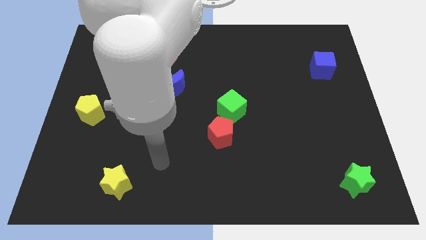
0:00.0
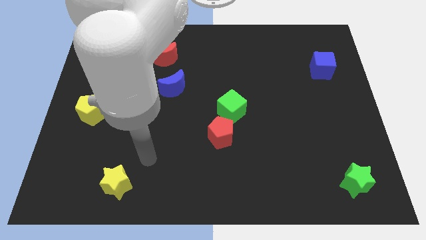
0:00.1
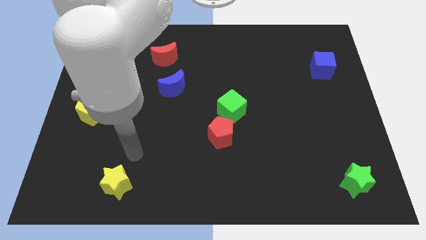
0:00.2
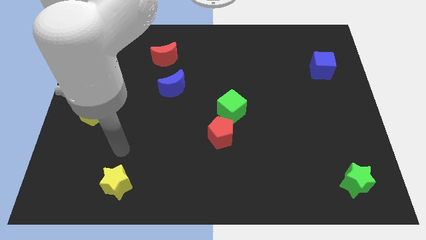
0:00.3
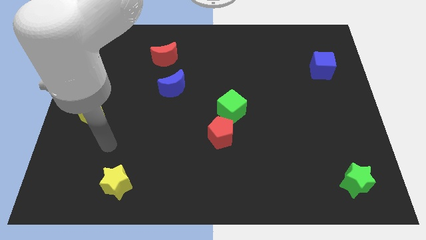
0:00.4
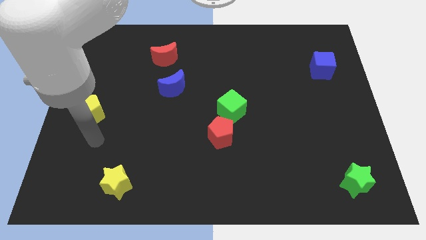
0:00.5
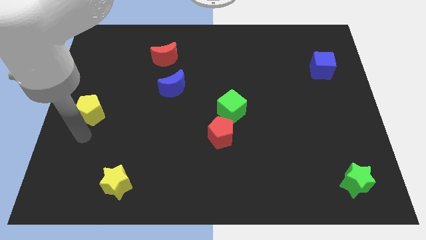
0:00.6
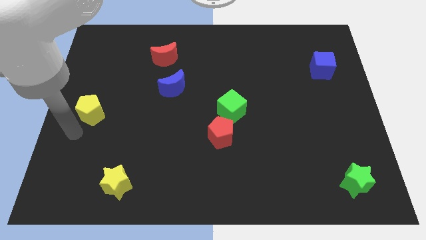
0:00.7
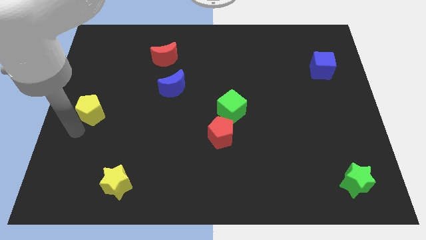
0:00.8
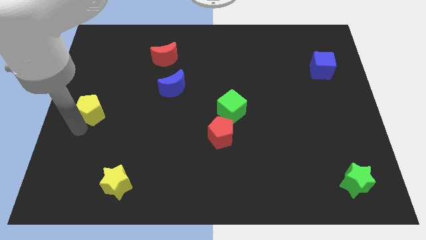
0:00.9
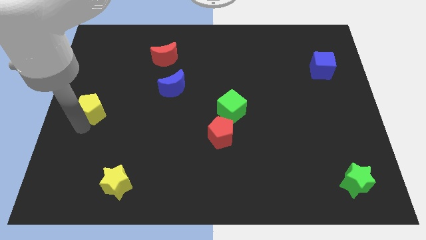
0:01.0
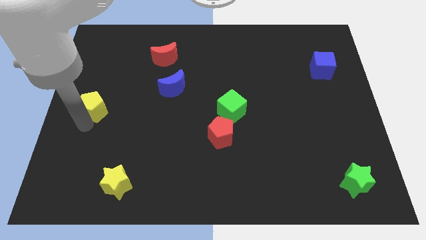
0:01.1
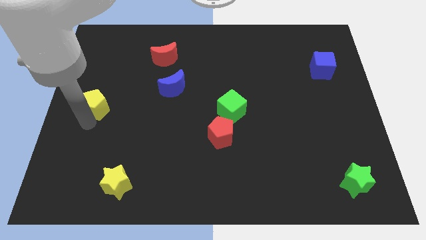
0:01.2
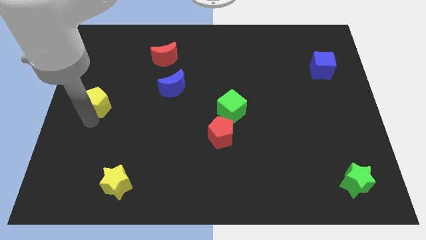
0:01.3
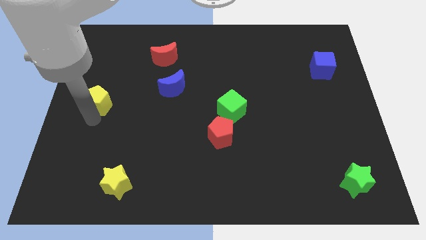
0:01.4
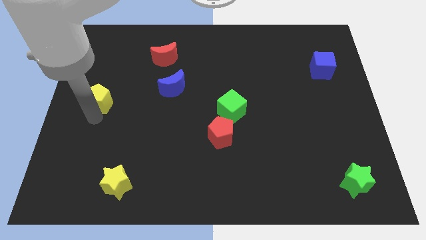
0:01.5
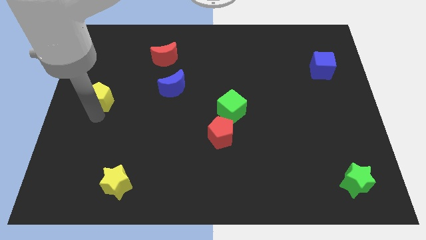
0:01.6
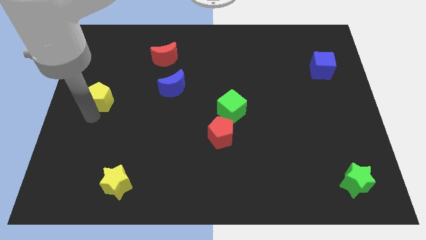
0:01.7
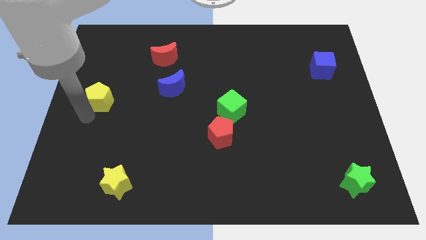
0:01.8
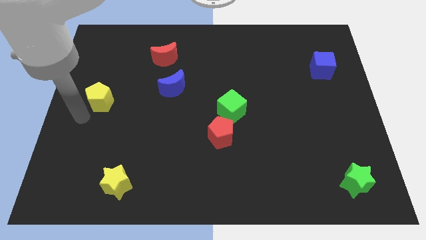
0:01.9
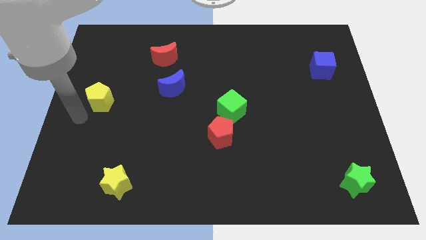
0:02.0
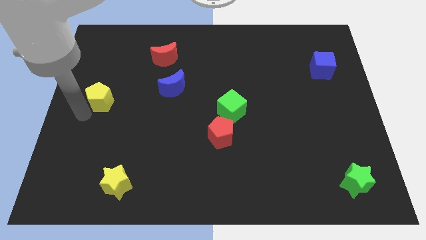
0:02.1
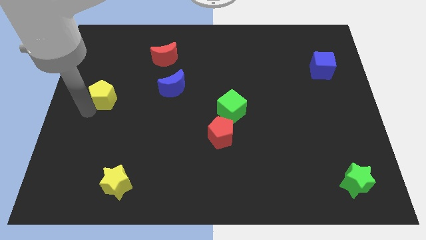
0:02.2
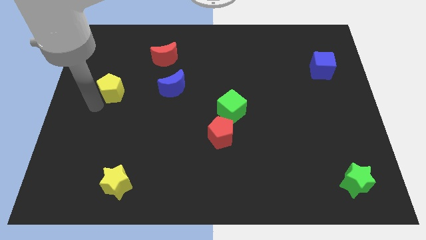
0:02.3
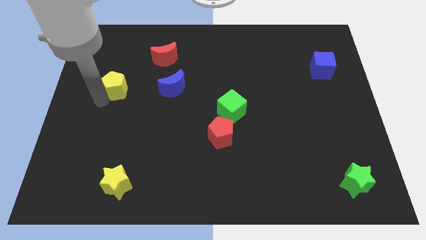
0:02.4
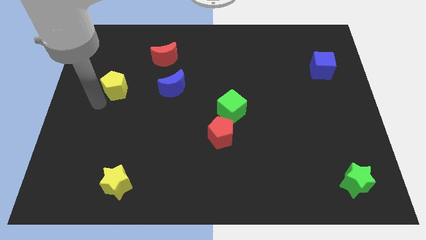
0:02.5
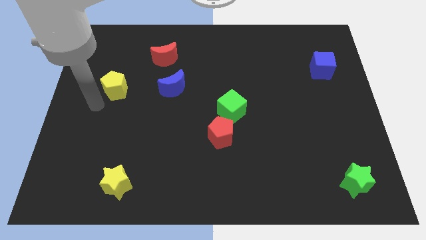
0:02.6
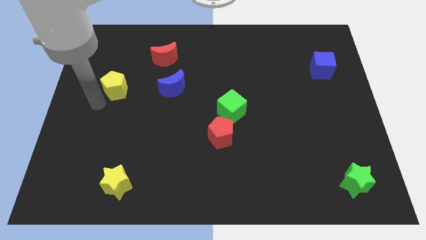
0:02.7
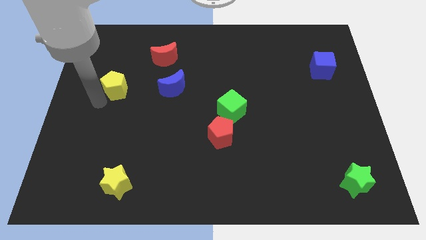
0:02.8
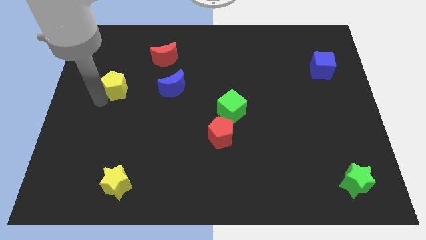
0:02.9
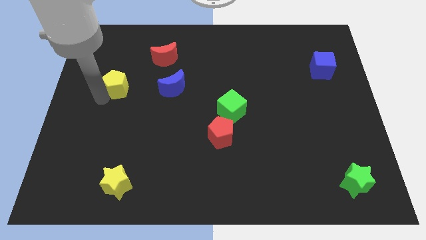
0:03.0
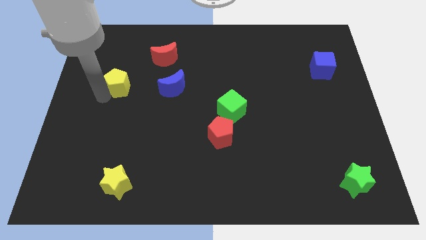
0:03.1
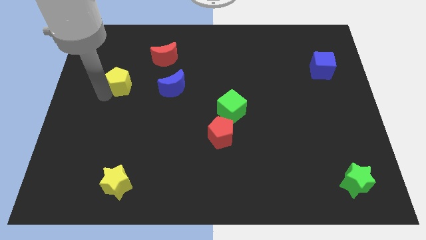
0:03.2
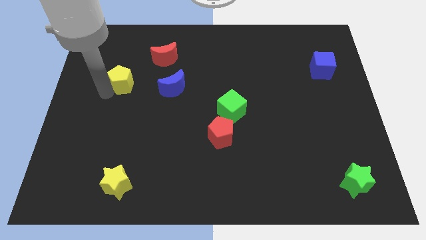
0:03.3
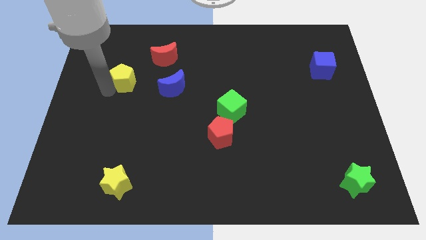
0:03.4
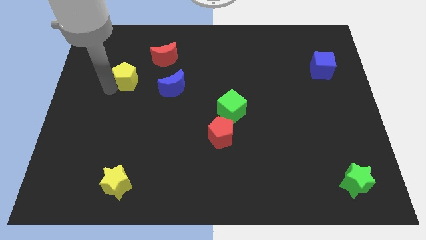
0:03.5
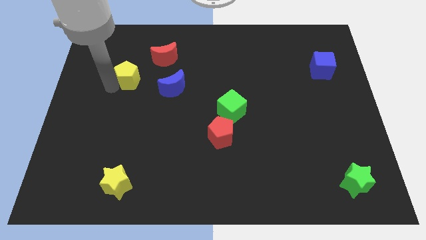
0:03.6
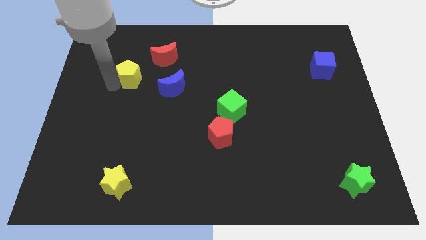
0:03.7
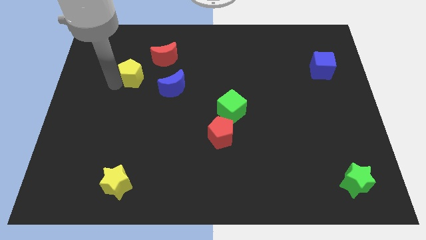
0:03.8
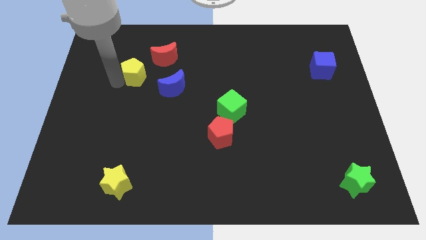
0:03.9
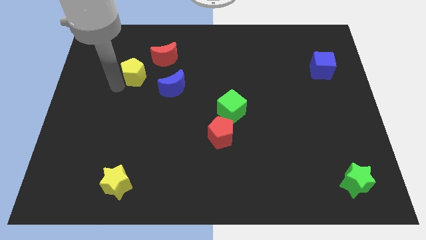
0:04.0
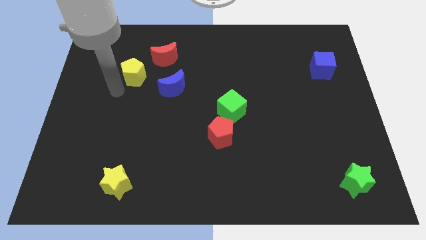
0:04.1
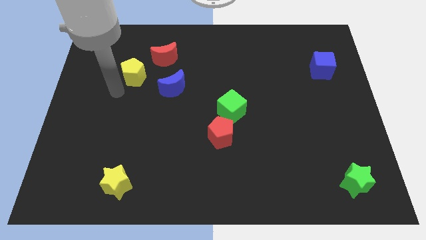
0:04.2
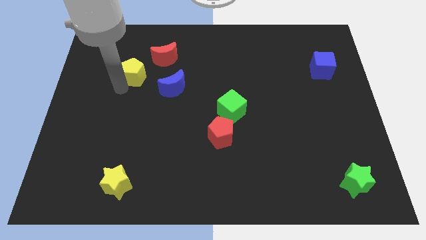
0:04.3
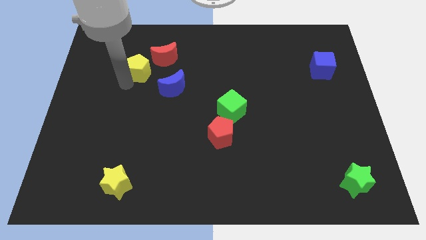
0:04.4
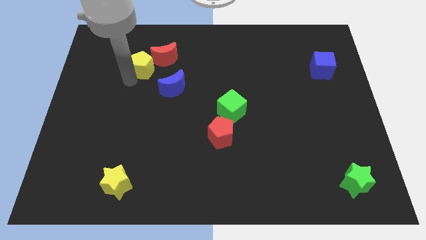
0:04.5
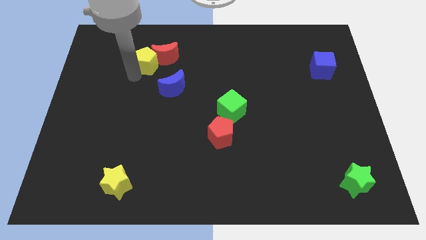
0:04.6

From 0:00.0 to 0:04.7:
put the yellow pentagon towards the red moon

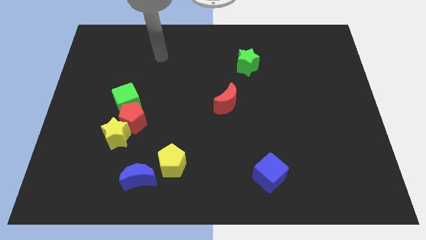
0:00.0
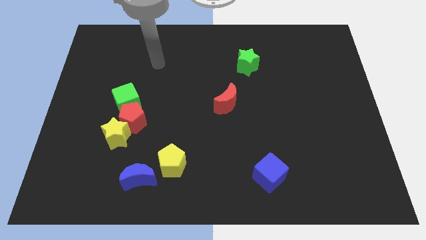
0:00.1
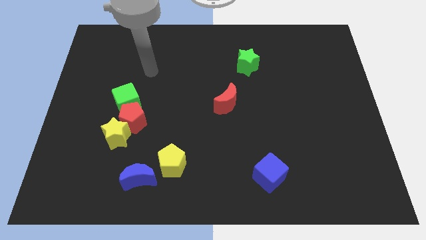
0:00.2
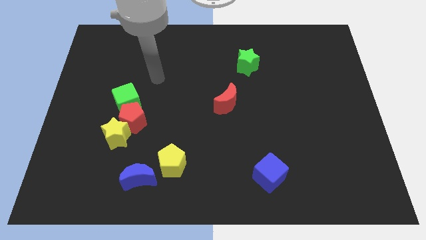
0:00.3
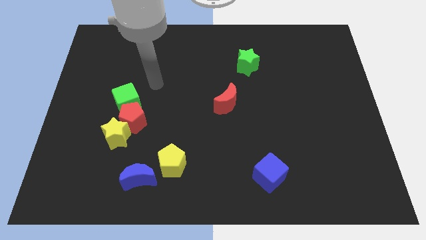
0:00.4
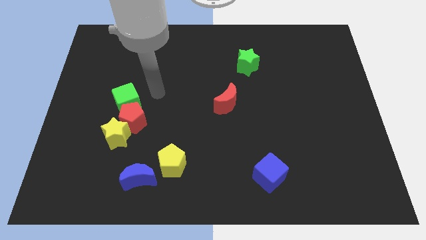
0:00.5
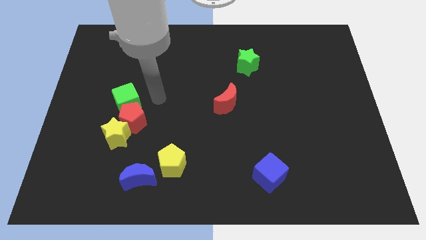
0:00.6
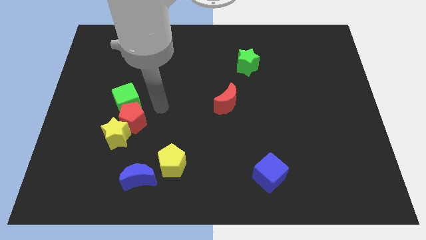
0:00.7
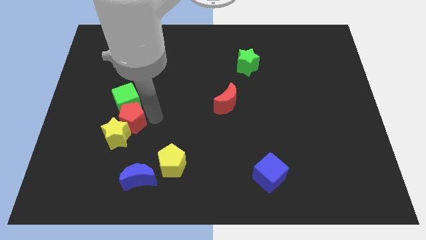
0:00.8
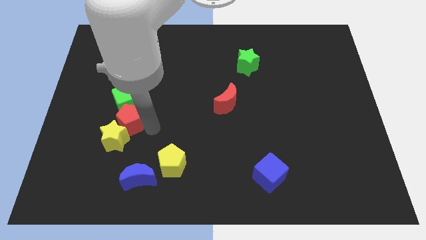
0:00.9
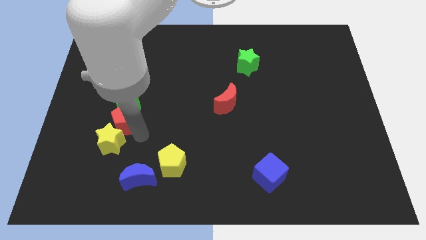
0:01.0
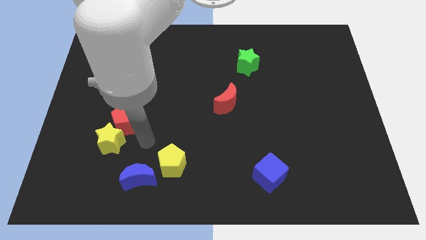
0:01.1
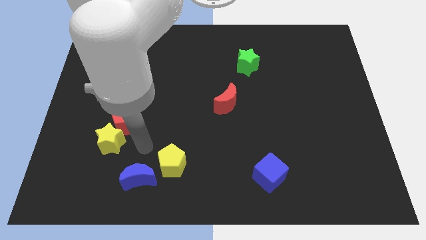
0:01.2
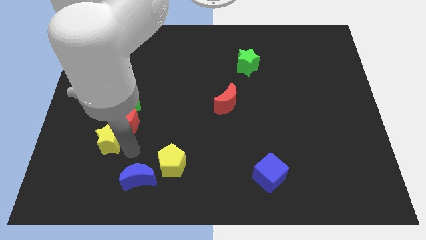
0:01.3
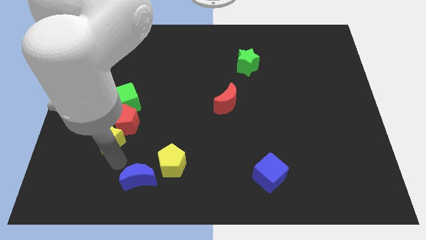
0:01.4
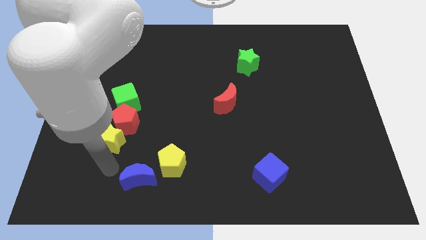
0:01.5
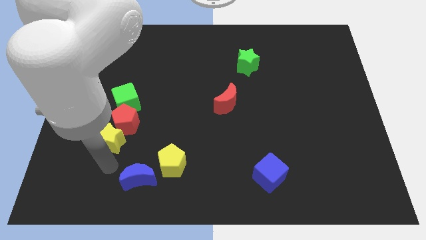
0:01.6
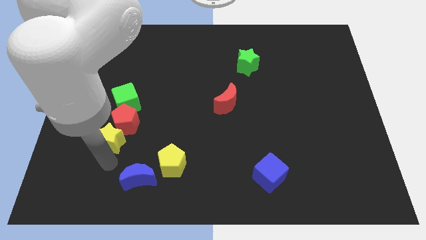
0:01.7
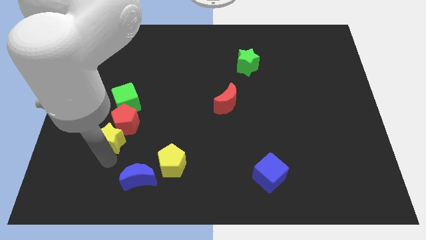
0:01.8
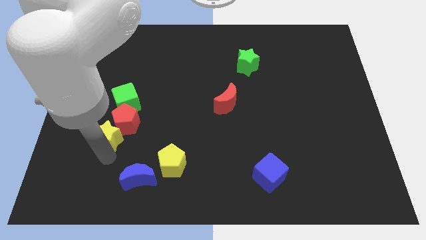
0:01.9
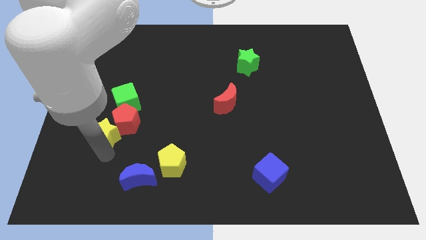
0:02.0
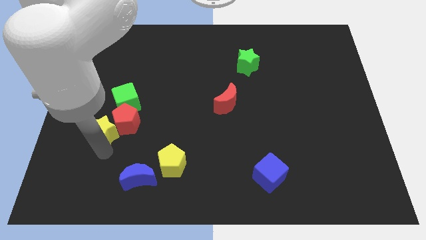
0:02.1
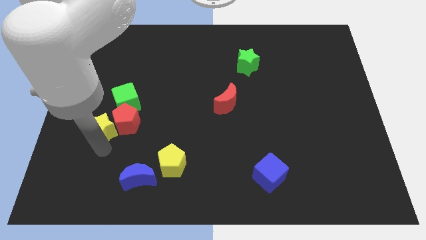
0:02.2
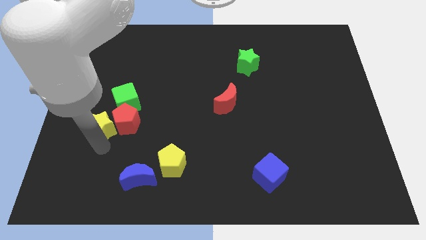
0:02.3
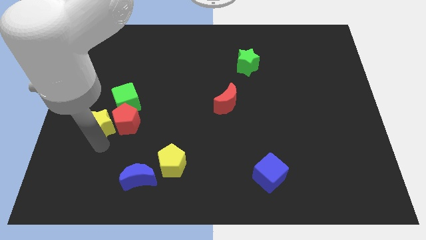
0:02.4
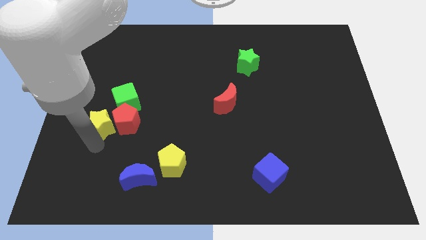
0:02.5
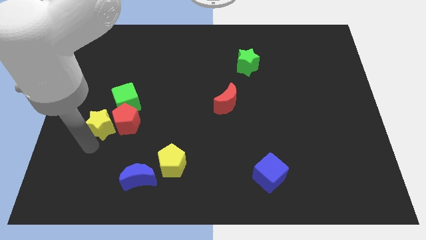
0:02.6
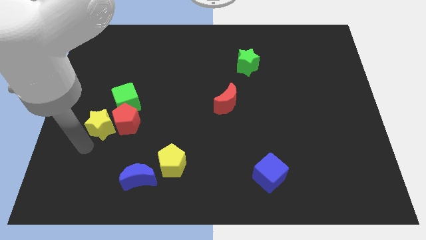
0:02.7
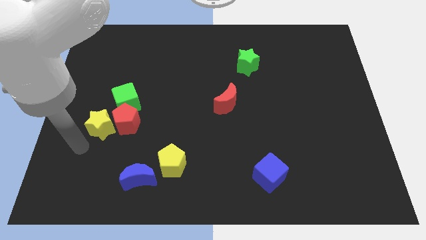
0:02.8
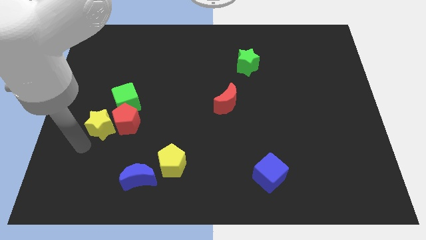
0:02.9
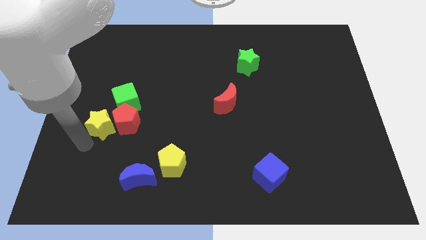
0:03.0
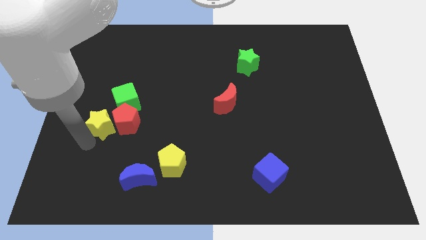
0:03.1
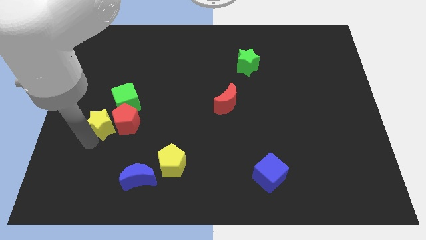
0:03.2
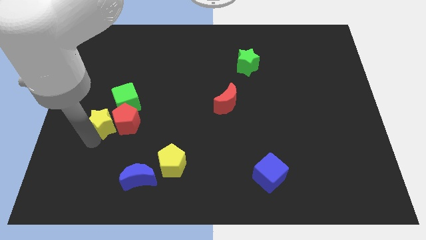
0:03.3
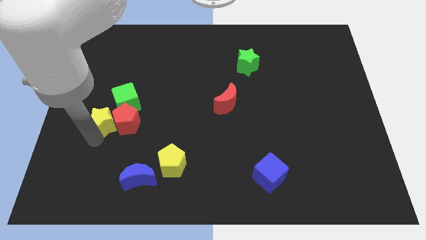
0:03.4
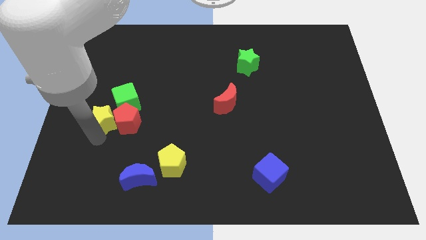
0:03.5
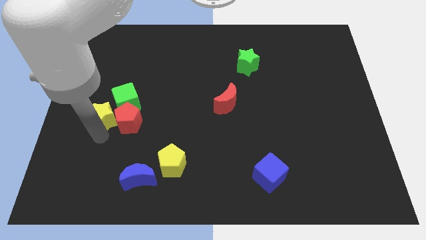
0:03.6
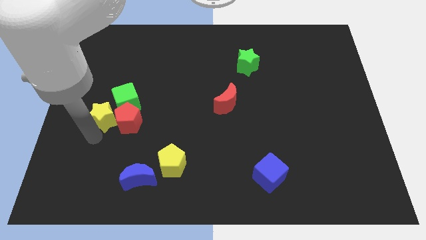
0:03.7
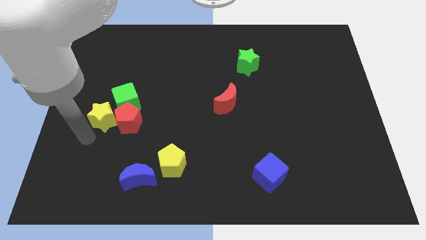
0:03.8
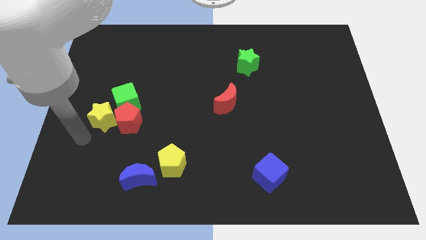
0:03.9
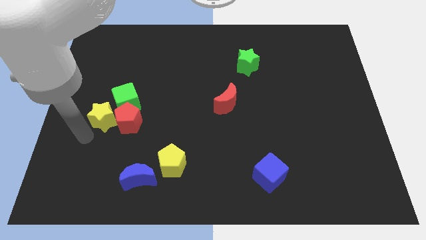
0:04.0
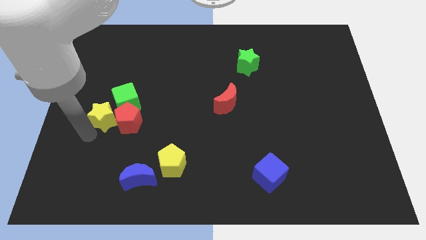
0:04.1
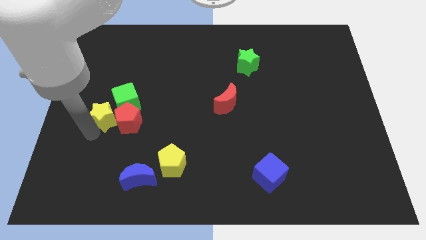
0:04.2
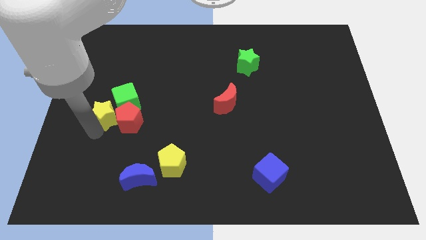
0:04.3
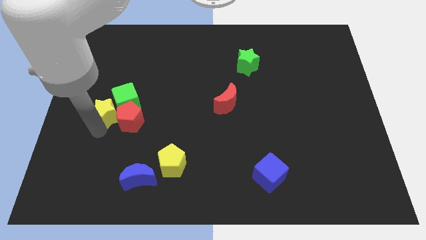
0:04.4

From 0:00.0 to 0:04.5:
move the yellow star to the green cube
